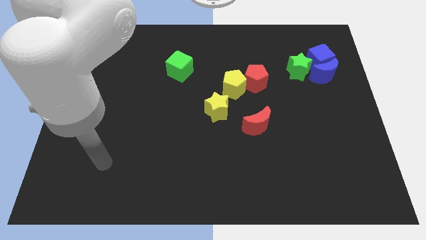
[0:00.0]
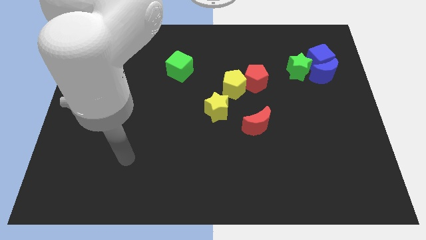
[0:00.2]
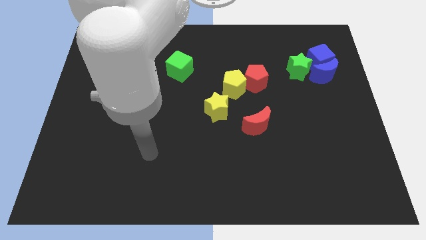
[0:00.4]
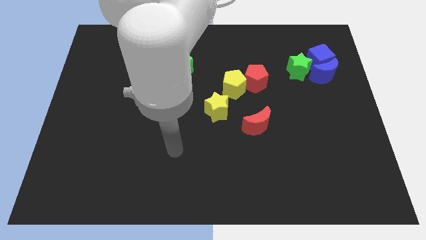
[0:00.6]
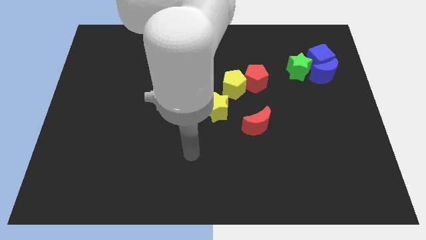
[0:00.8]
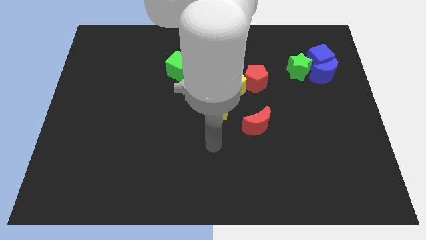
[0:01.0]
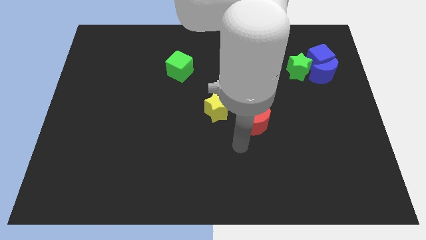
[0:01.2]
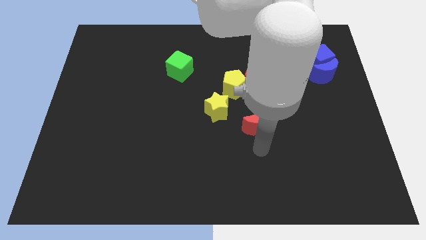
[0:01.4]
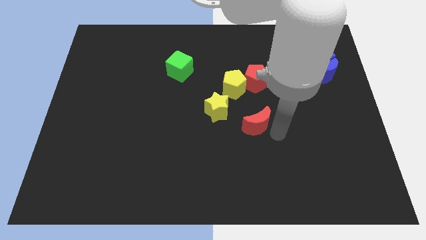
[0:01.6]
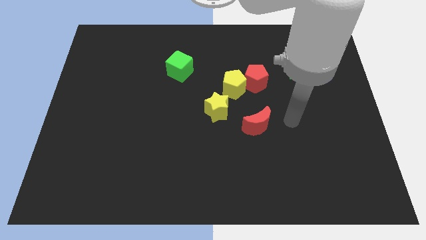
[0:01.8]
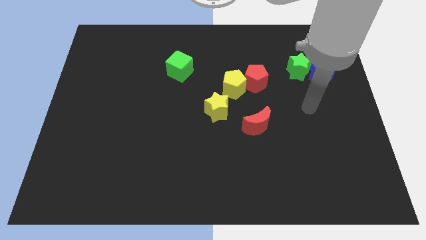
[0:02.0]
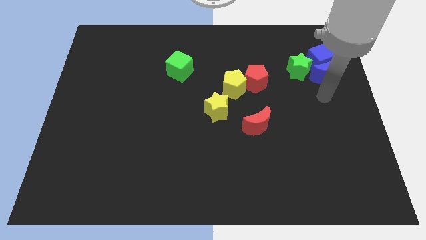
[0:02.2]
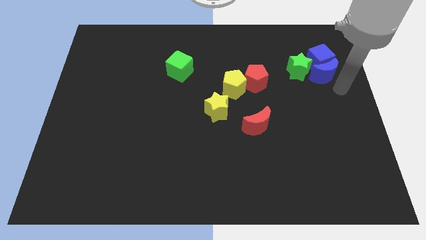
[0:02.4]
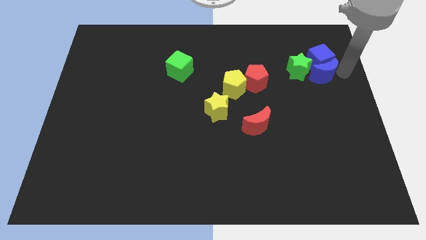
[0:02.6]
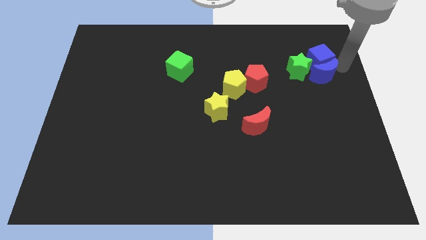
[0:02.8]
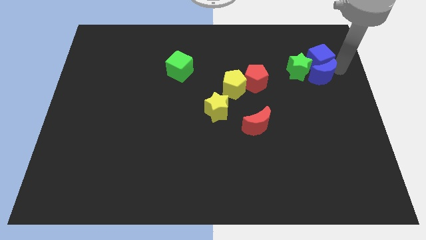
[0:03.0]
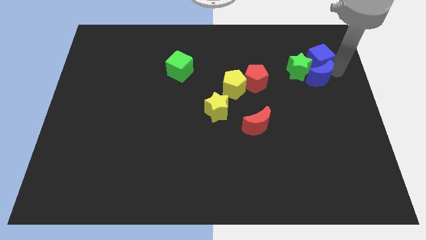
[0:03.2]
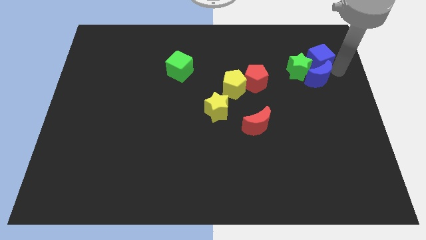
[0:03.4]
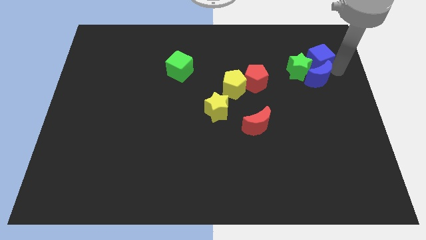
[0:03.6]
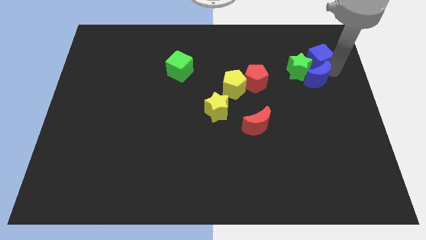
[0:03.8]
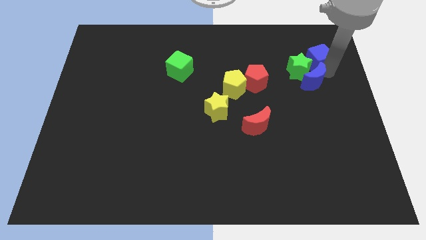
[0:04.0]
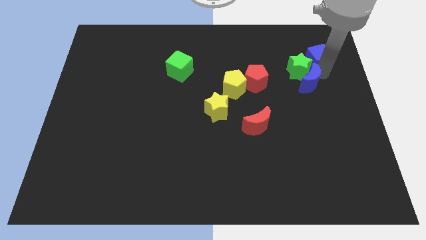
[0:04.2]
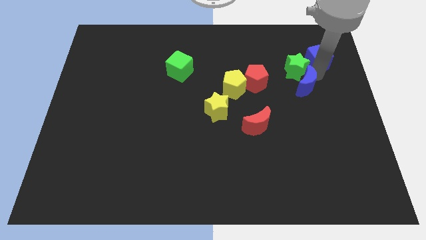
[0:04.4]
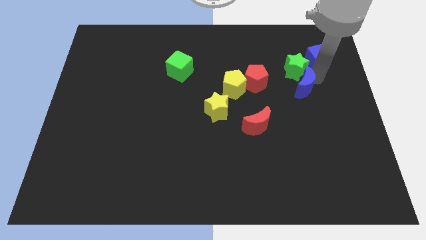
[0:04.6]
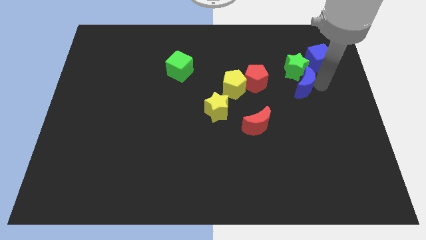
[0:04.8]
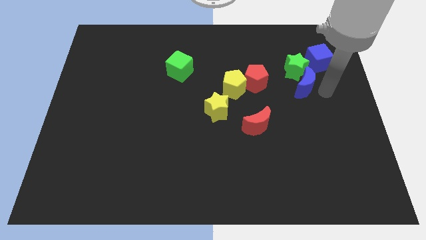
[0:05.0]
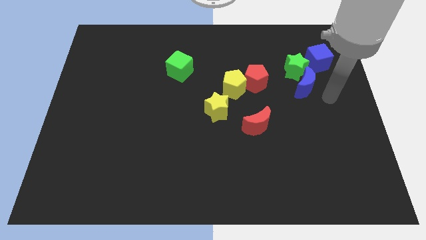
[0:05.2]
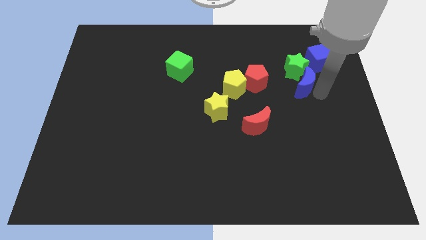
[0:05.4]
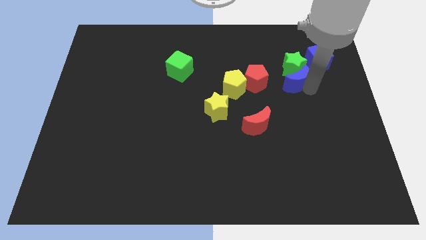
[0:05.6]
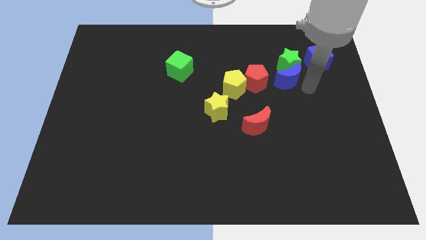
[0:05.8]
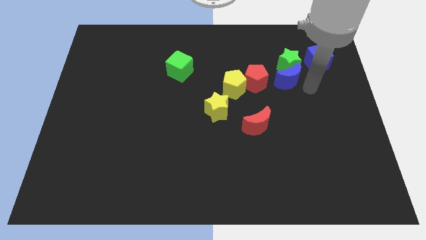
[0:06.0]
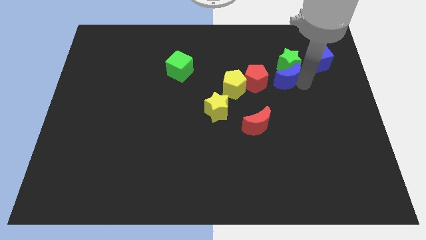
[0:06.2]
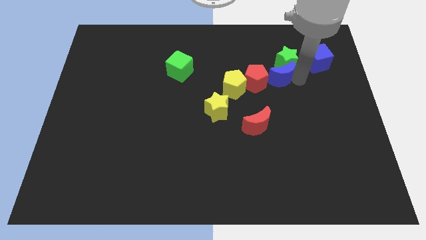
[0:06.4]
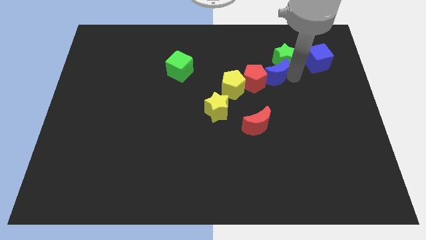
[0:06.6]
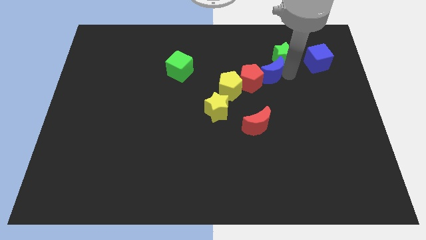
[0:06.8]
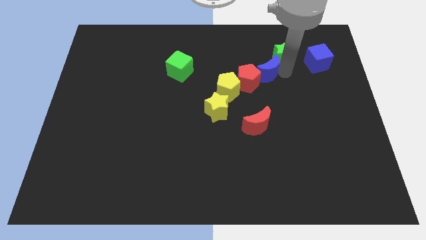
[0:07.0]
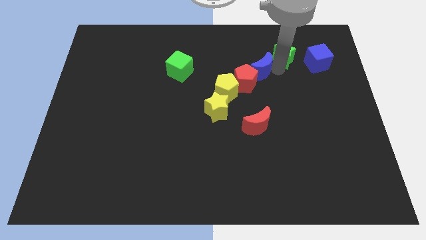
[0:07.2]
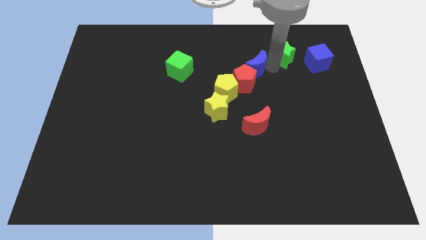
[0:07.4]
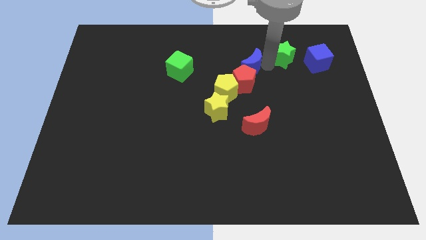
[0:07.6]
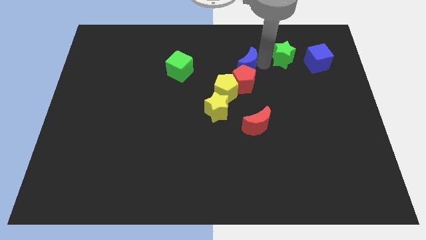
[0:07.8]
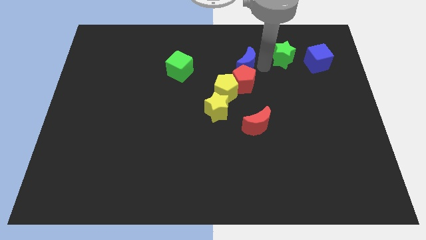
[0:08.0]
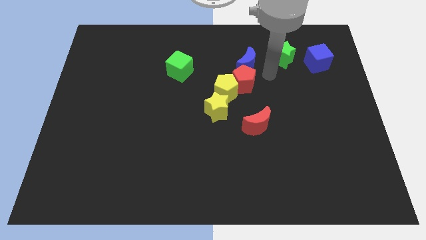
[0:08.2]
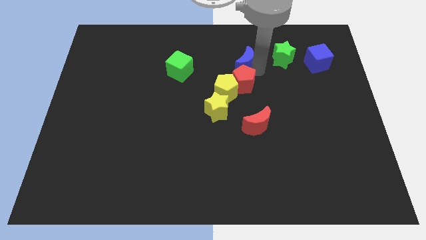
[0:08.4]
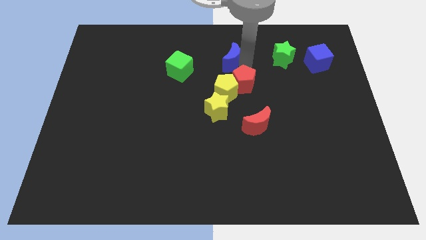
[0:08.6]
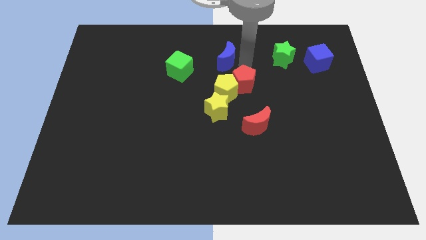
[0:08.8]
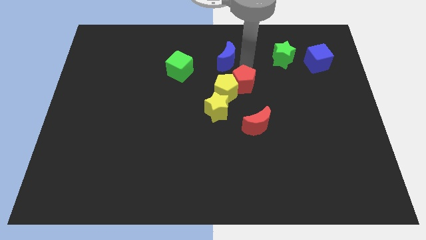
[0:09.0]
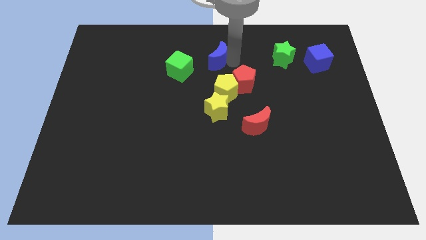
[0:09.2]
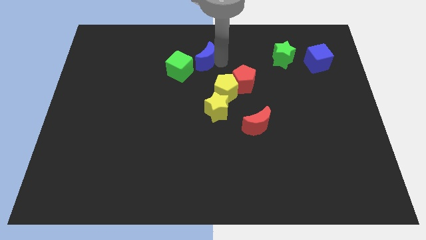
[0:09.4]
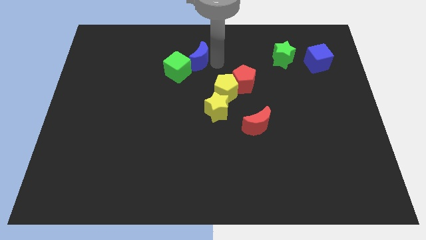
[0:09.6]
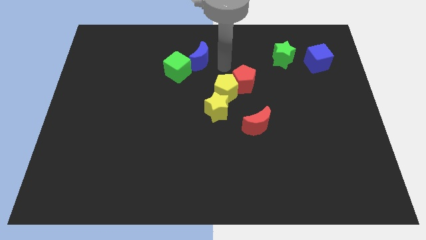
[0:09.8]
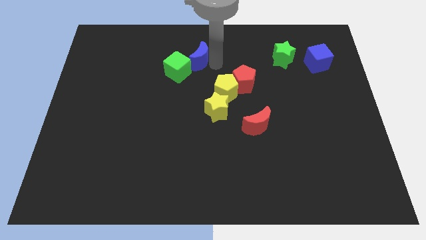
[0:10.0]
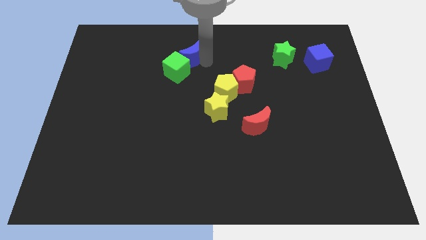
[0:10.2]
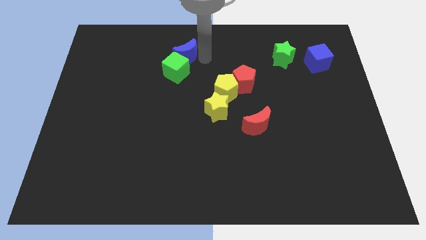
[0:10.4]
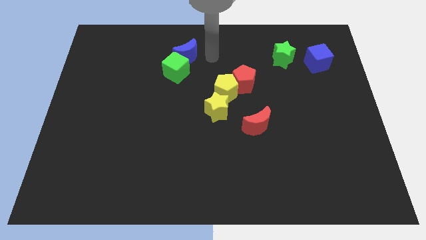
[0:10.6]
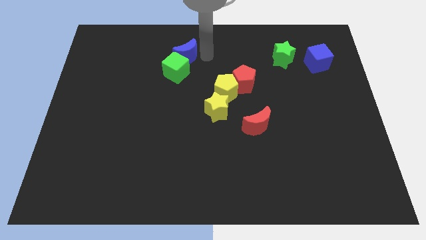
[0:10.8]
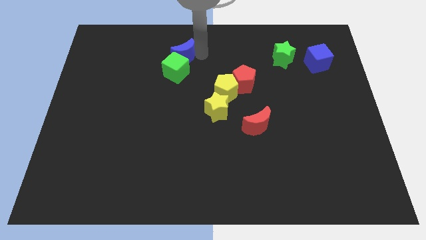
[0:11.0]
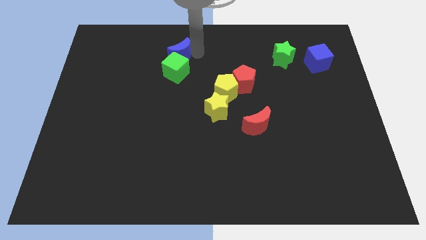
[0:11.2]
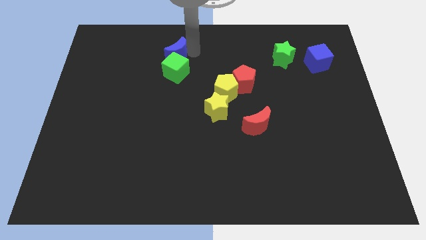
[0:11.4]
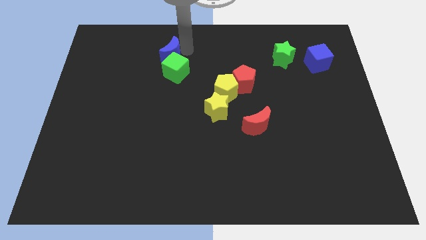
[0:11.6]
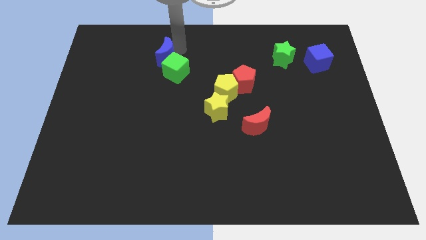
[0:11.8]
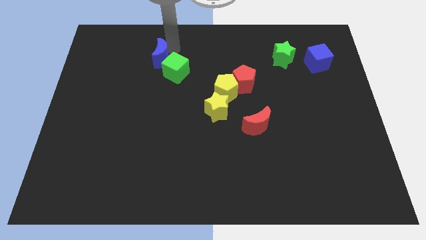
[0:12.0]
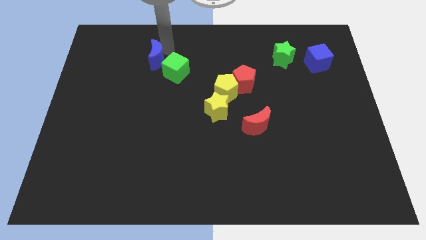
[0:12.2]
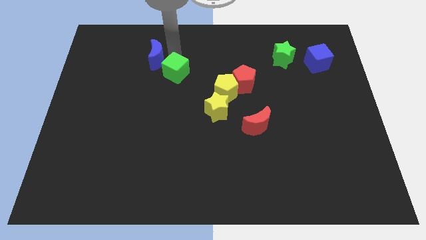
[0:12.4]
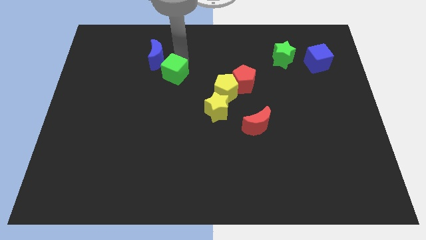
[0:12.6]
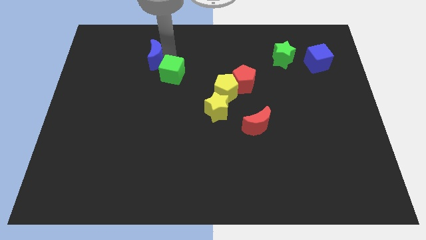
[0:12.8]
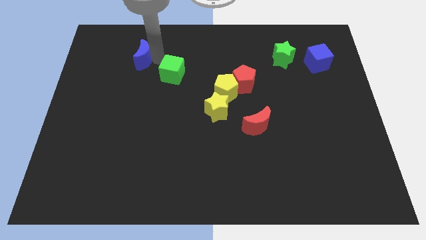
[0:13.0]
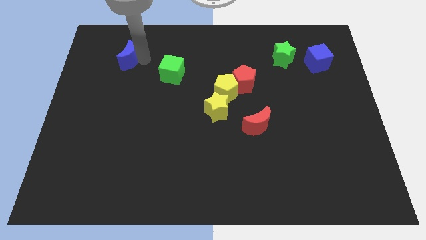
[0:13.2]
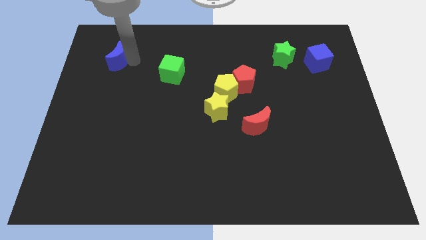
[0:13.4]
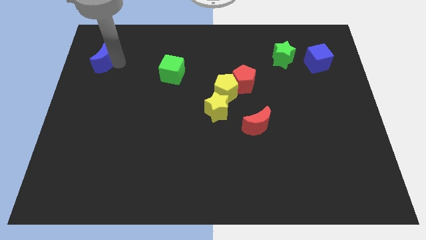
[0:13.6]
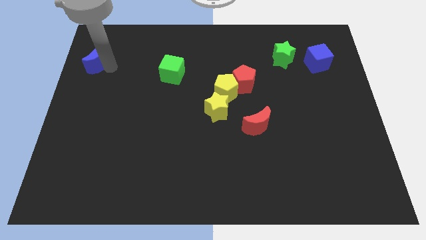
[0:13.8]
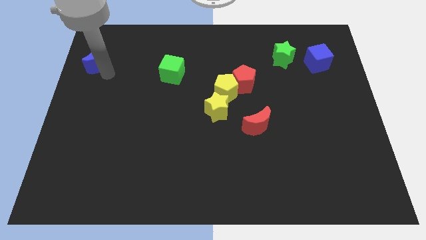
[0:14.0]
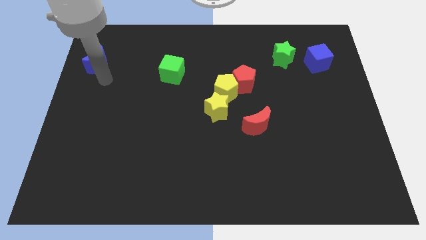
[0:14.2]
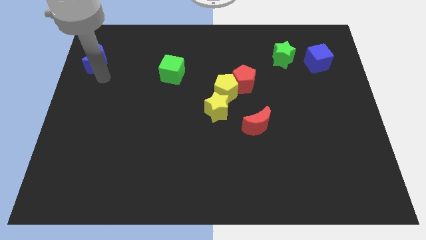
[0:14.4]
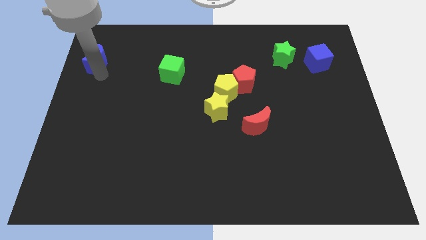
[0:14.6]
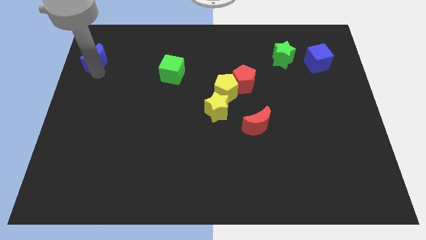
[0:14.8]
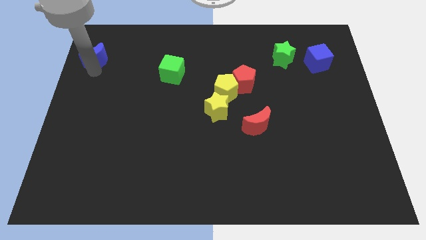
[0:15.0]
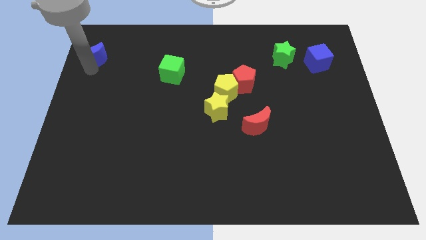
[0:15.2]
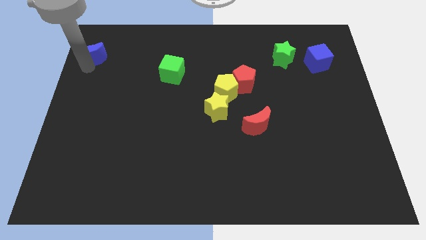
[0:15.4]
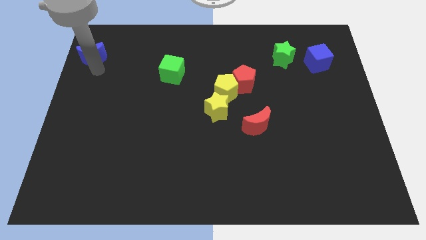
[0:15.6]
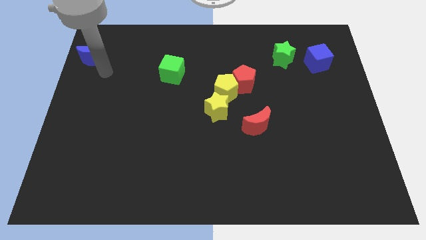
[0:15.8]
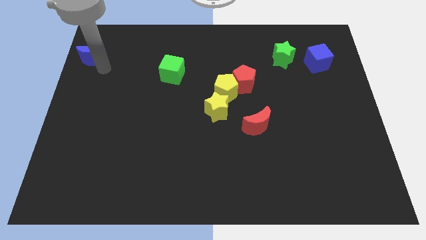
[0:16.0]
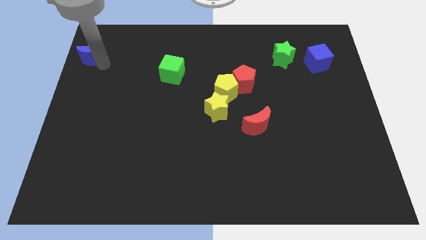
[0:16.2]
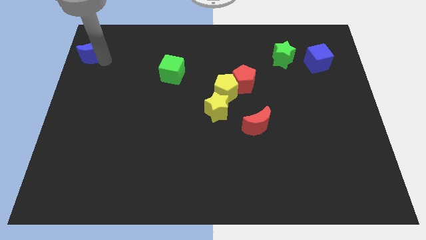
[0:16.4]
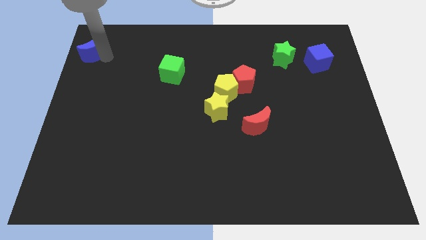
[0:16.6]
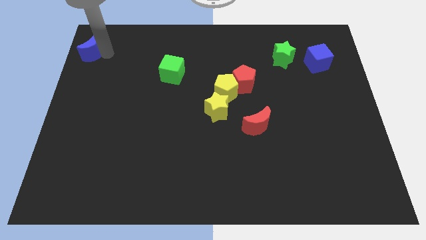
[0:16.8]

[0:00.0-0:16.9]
slide the blue moon to the top left corner
